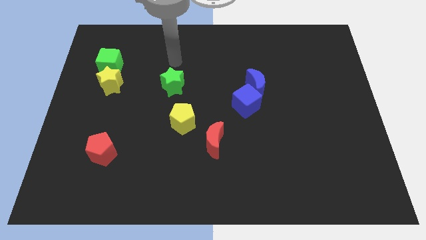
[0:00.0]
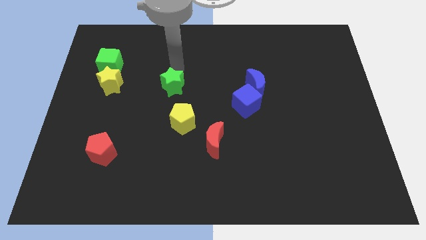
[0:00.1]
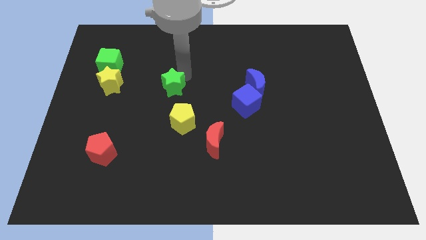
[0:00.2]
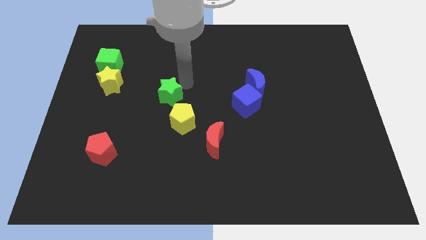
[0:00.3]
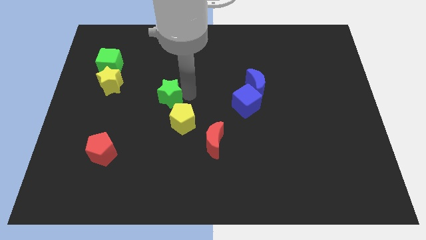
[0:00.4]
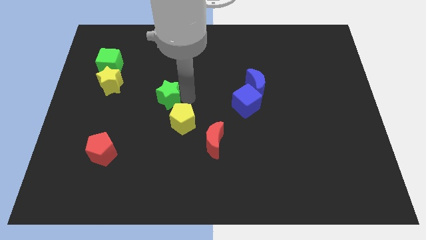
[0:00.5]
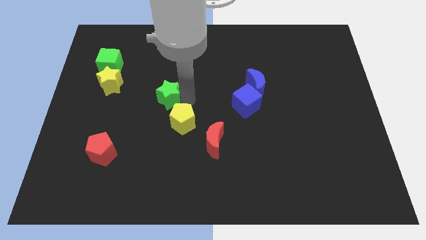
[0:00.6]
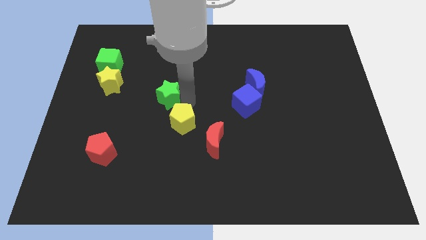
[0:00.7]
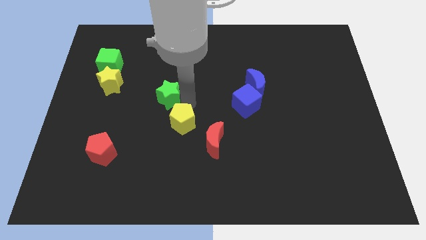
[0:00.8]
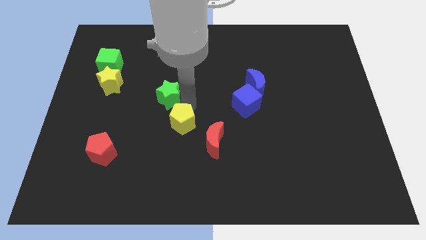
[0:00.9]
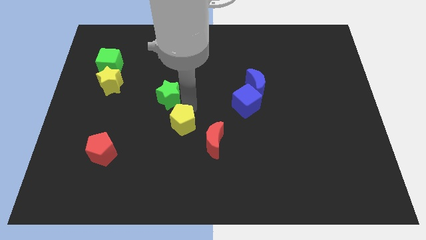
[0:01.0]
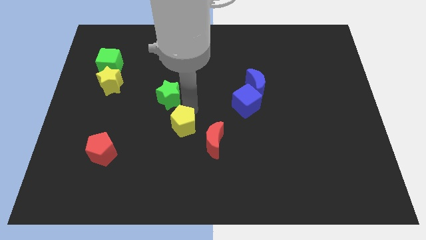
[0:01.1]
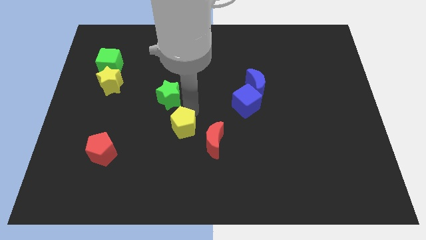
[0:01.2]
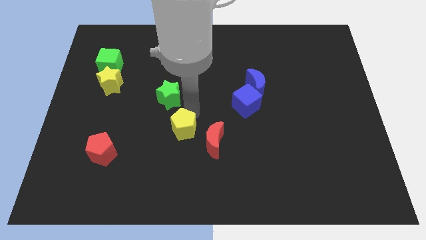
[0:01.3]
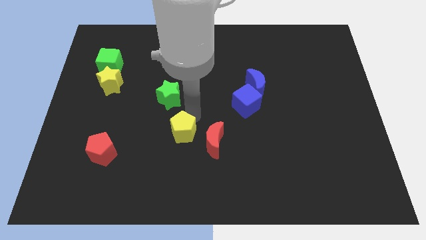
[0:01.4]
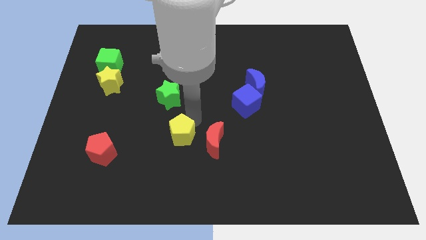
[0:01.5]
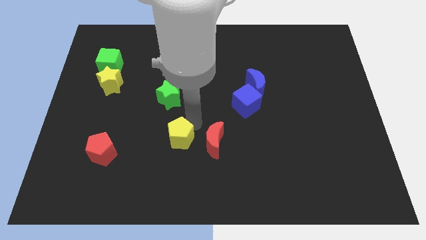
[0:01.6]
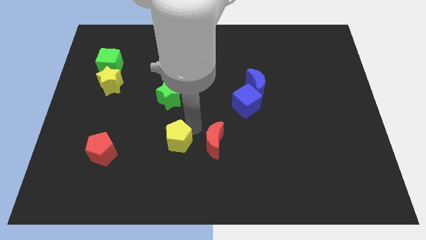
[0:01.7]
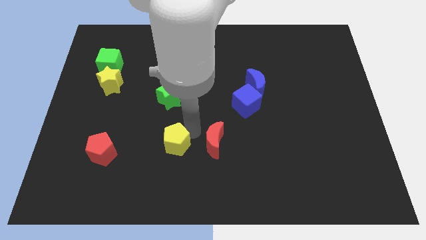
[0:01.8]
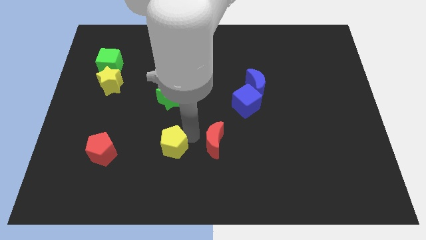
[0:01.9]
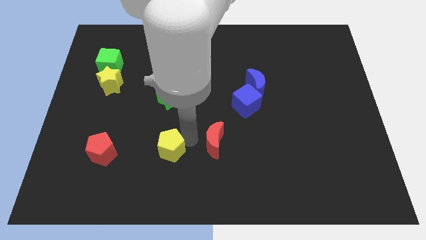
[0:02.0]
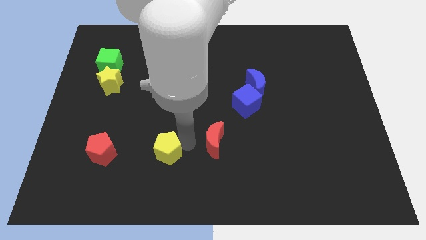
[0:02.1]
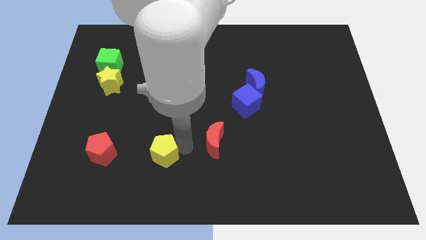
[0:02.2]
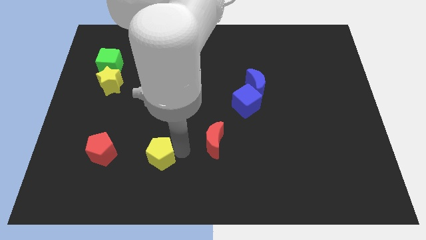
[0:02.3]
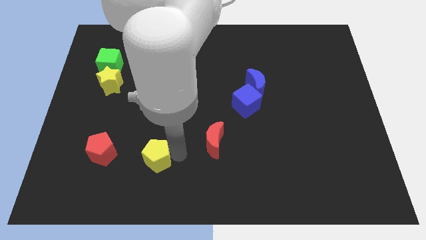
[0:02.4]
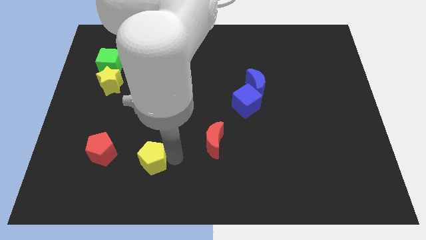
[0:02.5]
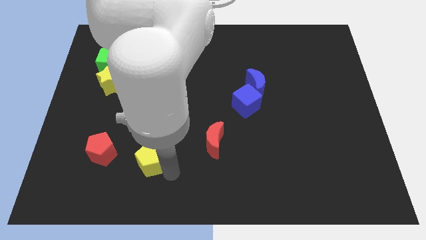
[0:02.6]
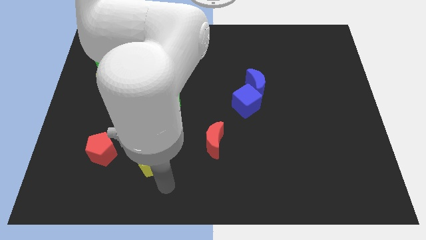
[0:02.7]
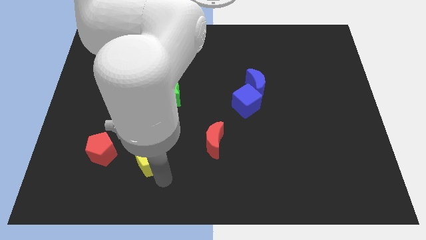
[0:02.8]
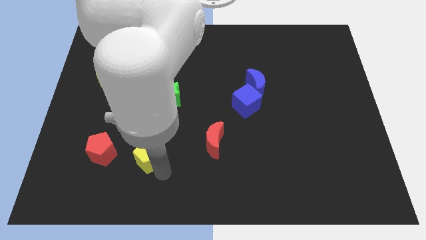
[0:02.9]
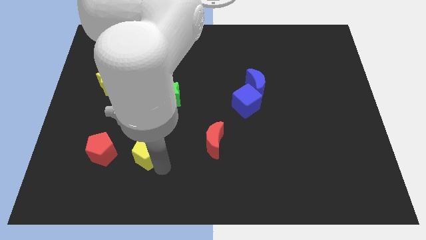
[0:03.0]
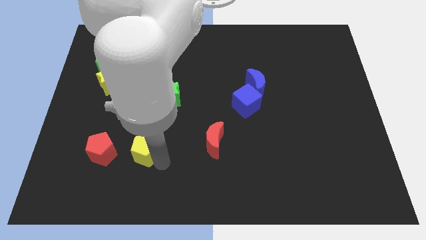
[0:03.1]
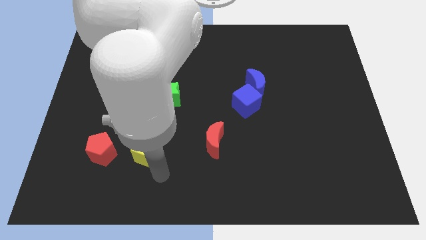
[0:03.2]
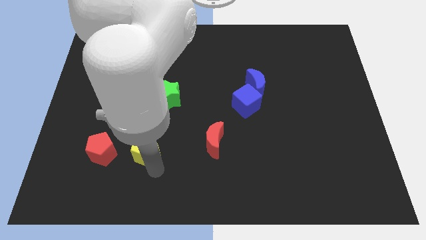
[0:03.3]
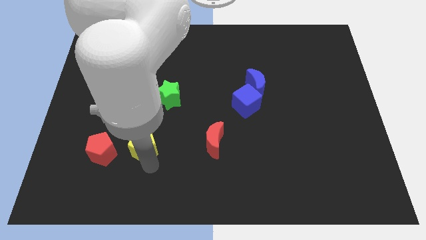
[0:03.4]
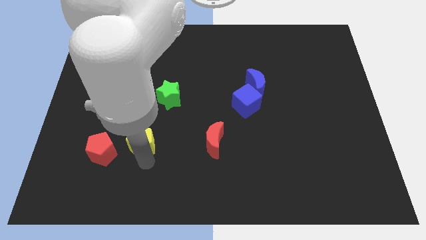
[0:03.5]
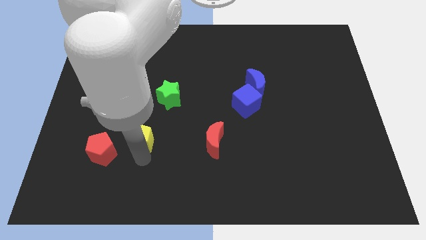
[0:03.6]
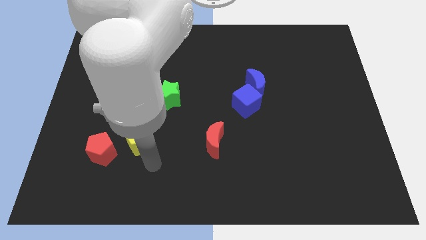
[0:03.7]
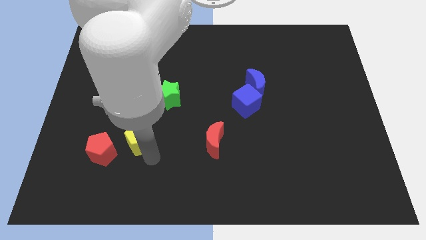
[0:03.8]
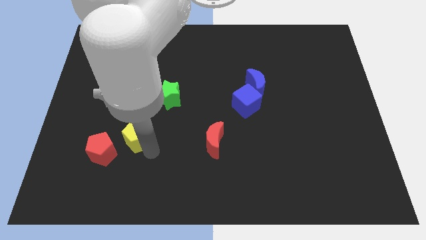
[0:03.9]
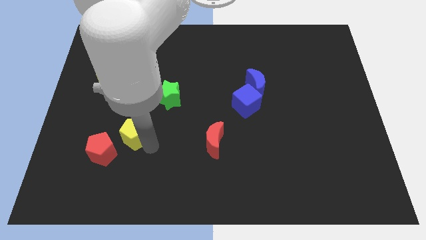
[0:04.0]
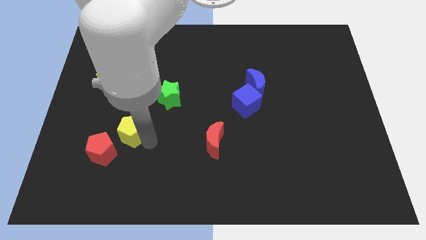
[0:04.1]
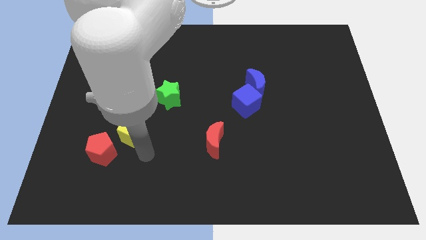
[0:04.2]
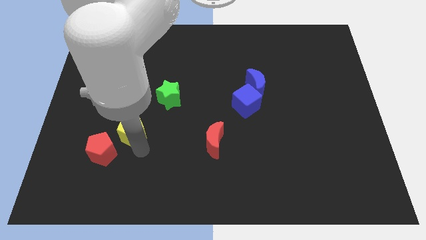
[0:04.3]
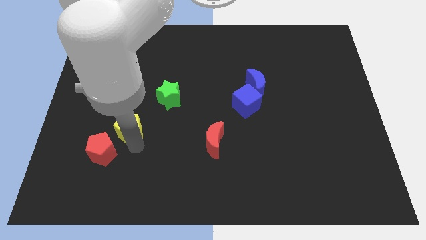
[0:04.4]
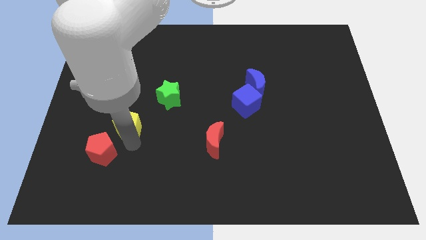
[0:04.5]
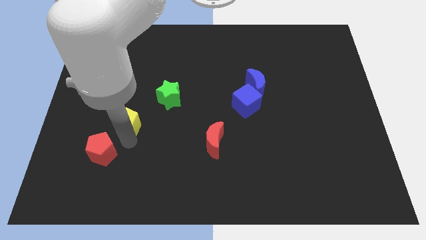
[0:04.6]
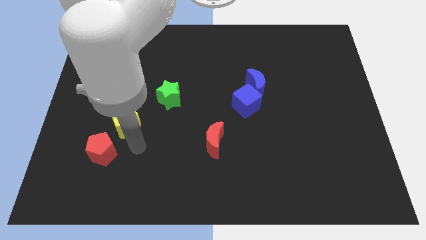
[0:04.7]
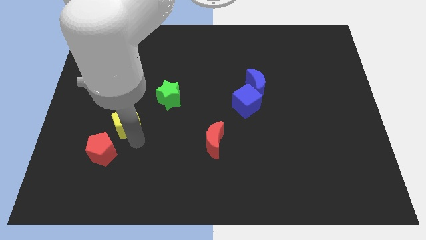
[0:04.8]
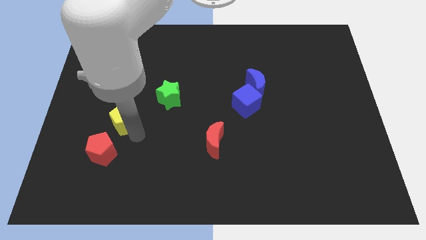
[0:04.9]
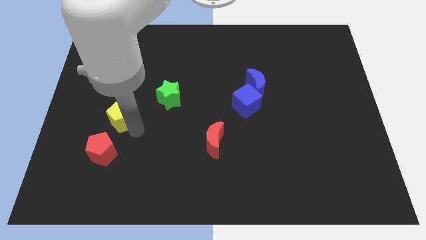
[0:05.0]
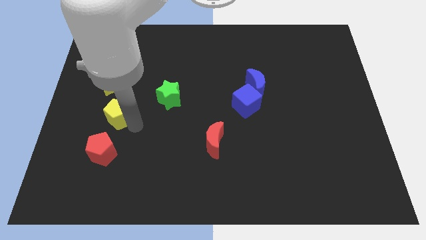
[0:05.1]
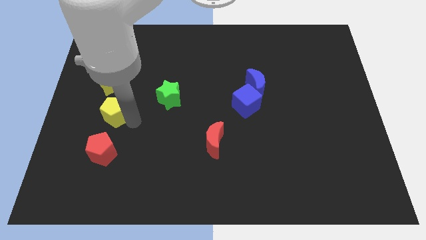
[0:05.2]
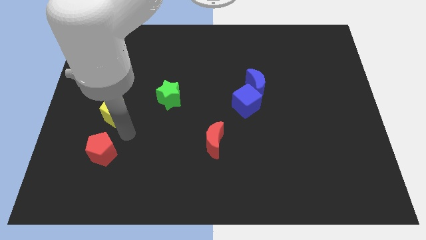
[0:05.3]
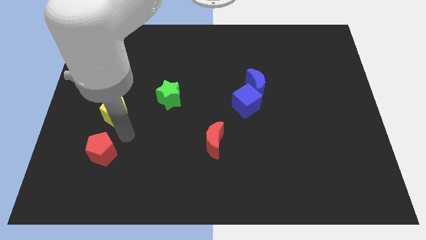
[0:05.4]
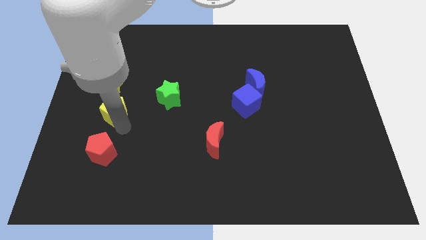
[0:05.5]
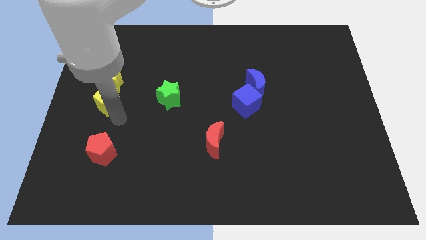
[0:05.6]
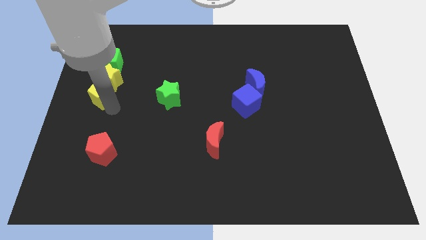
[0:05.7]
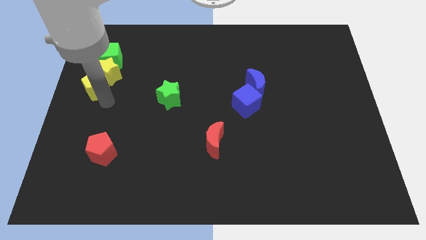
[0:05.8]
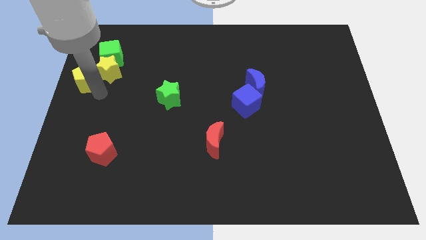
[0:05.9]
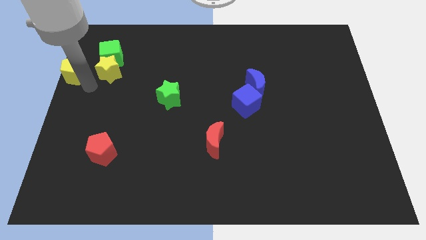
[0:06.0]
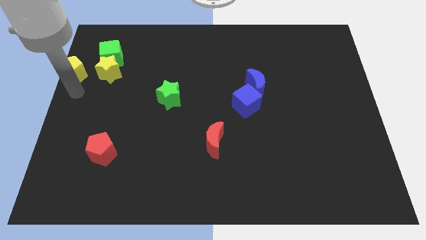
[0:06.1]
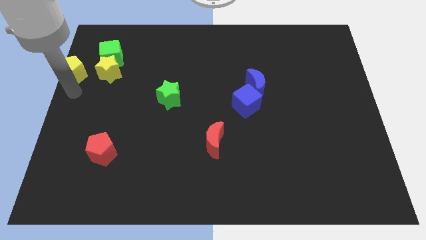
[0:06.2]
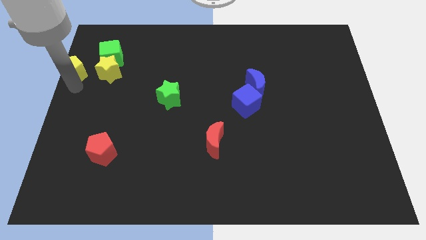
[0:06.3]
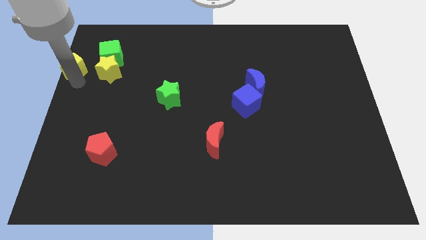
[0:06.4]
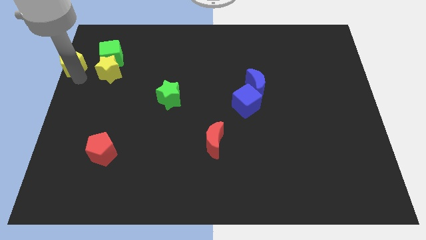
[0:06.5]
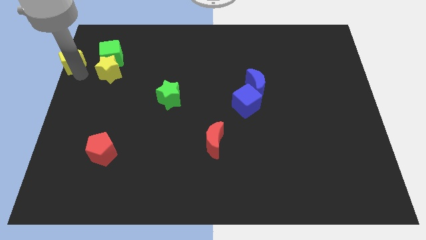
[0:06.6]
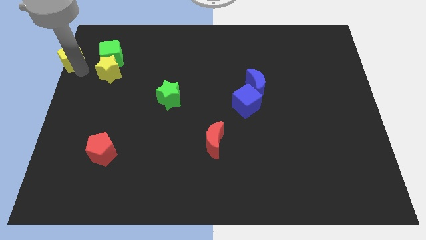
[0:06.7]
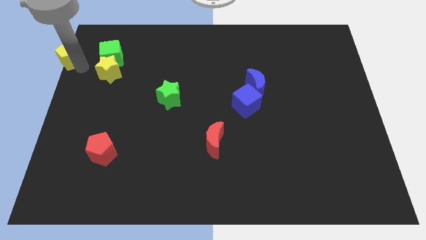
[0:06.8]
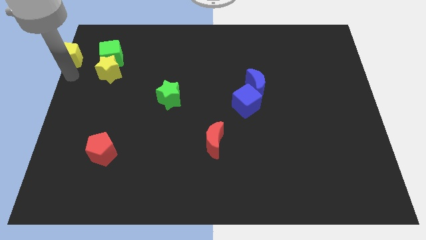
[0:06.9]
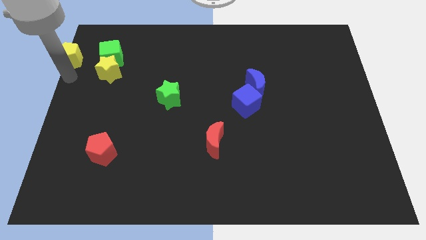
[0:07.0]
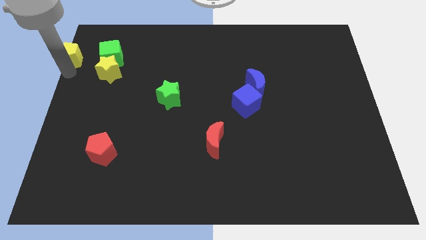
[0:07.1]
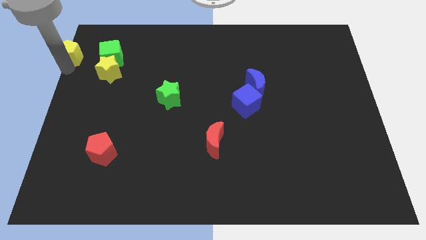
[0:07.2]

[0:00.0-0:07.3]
slide the yellow pentagon to the top left

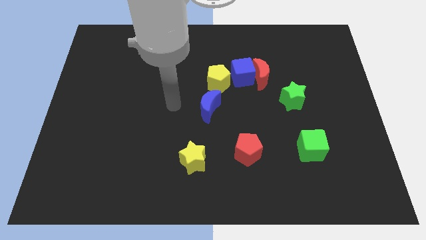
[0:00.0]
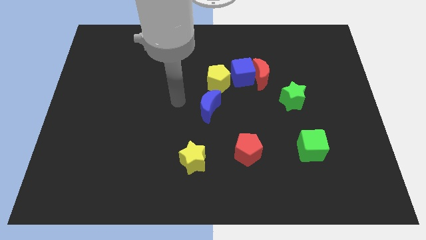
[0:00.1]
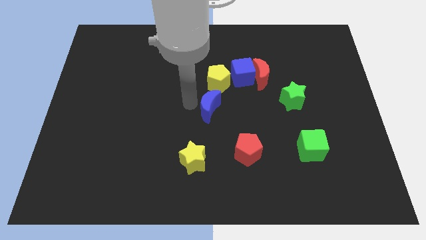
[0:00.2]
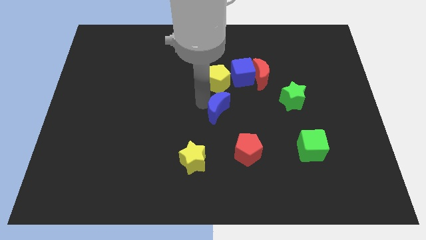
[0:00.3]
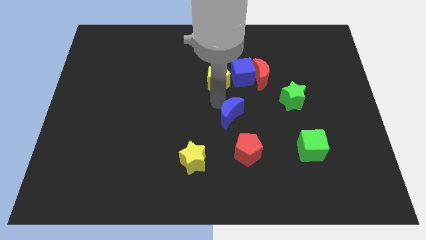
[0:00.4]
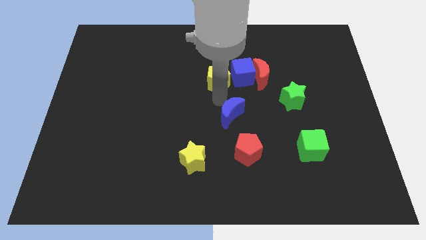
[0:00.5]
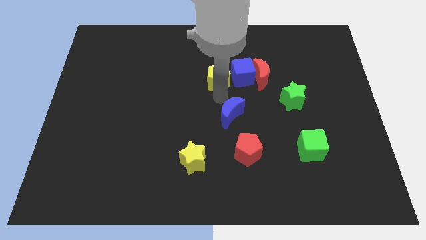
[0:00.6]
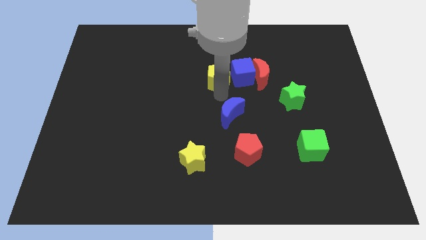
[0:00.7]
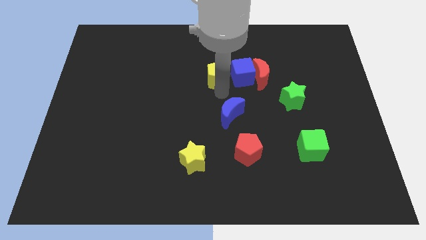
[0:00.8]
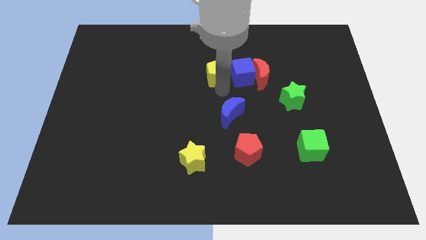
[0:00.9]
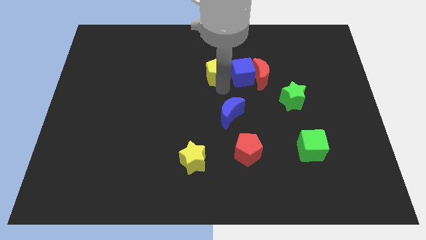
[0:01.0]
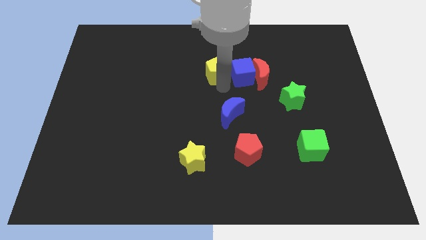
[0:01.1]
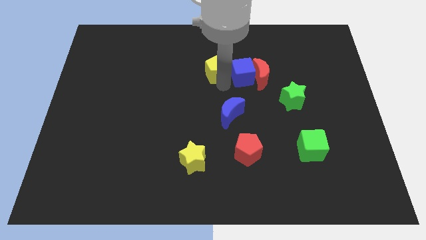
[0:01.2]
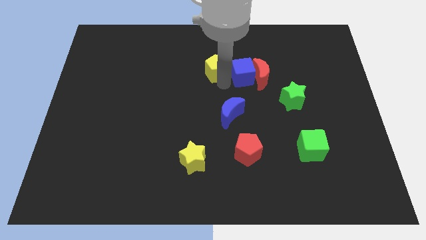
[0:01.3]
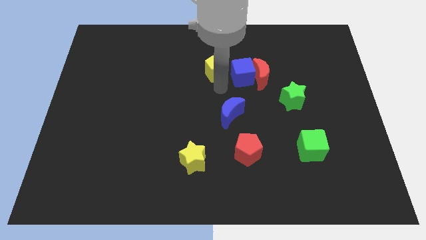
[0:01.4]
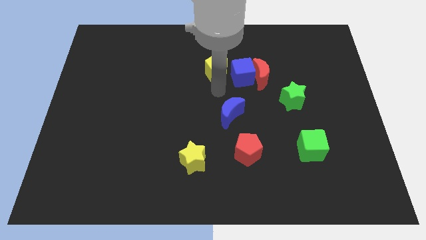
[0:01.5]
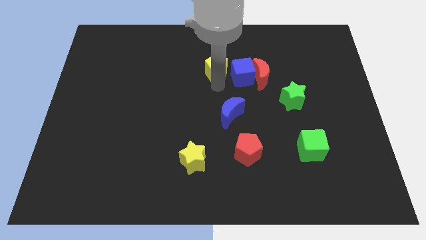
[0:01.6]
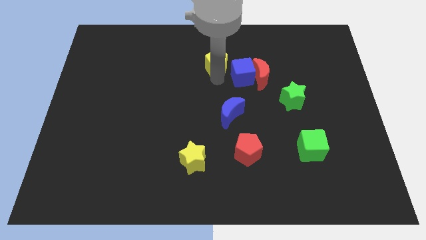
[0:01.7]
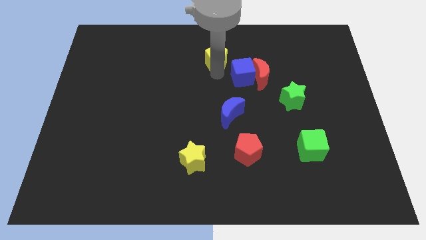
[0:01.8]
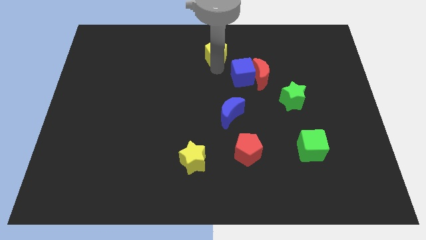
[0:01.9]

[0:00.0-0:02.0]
push the yellow pentagon to the top side
